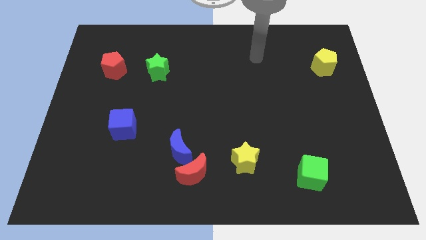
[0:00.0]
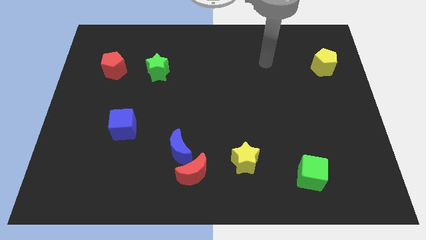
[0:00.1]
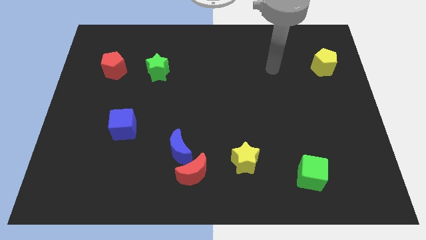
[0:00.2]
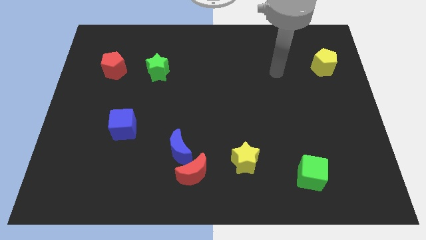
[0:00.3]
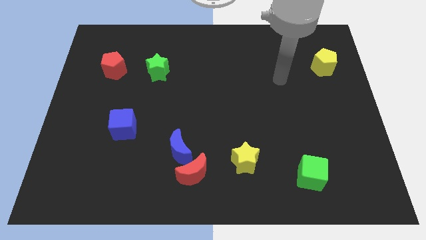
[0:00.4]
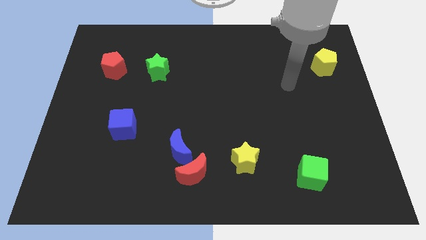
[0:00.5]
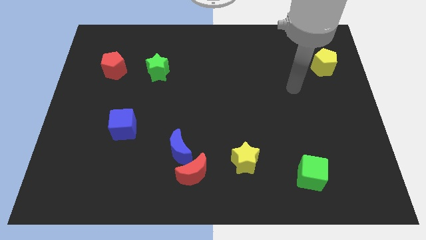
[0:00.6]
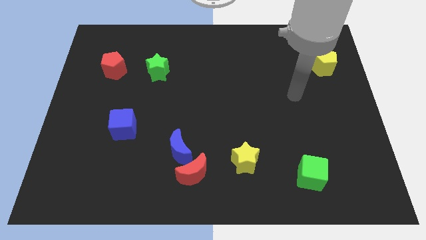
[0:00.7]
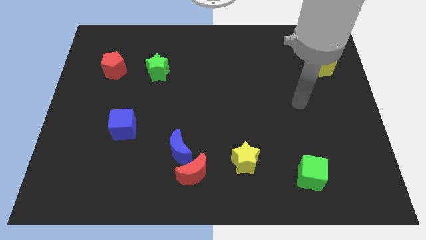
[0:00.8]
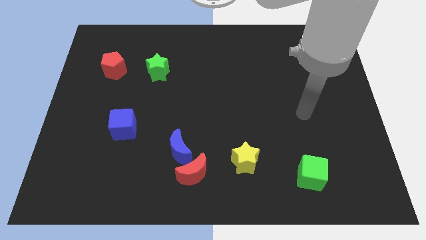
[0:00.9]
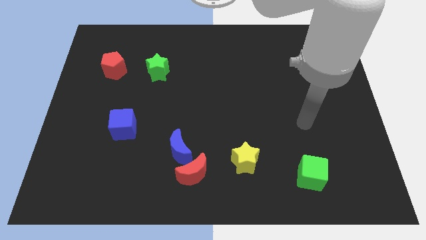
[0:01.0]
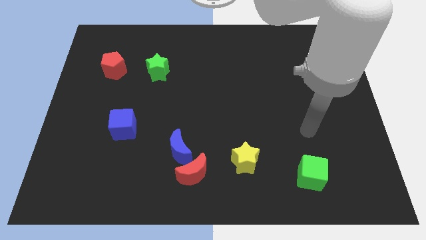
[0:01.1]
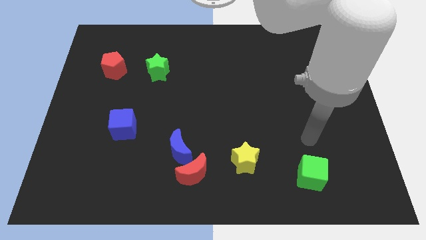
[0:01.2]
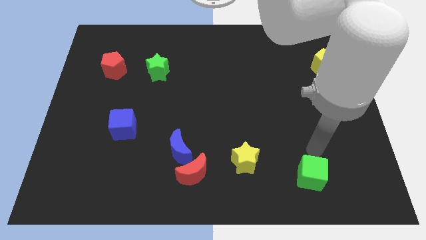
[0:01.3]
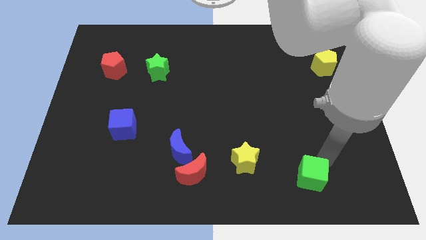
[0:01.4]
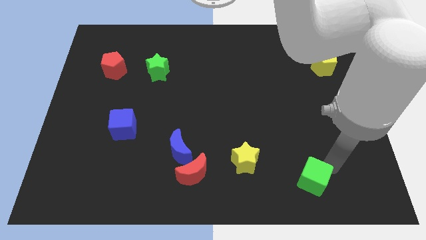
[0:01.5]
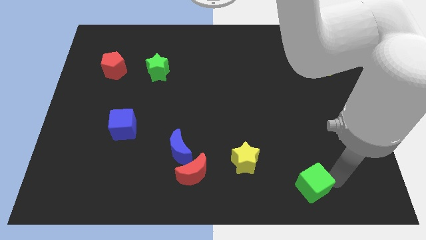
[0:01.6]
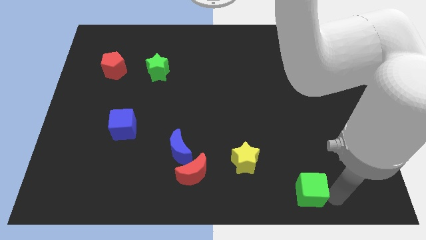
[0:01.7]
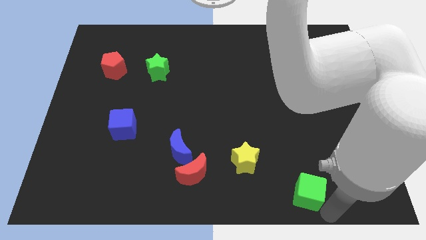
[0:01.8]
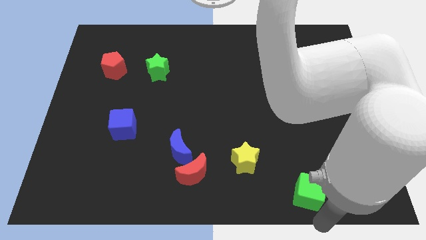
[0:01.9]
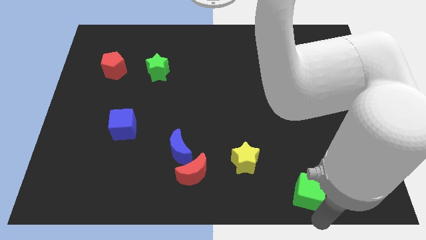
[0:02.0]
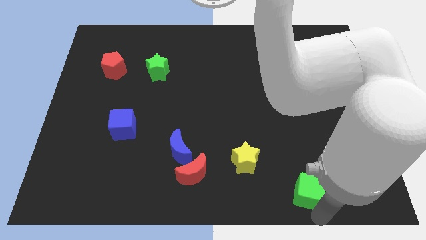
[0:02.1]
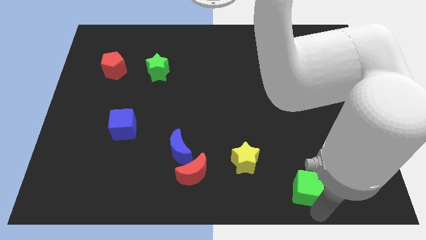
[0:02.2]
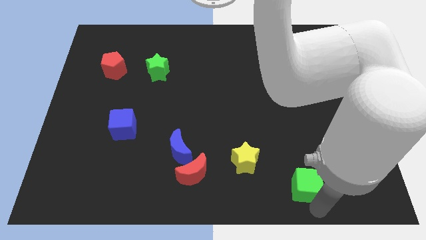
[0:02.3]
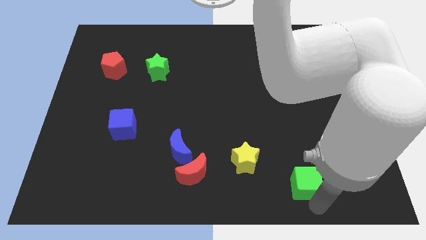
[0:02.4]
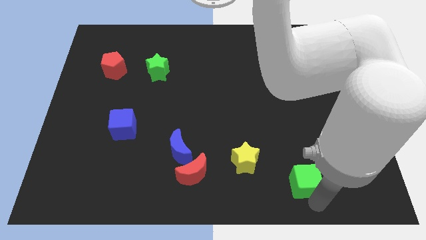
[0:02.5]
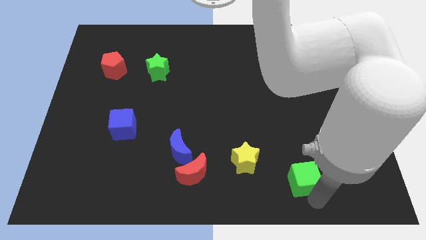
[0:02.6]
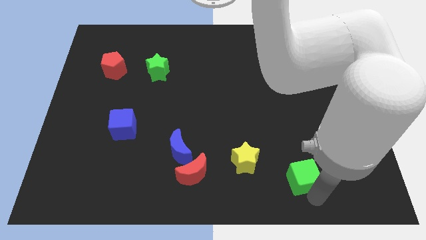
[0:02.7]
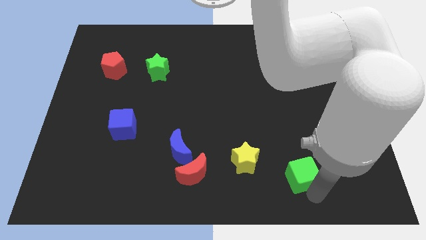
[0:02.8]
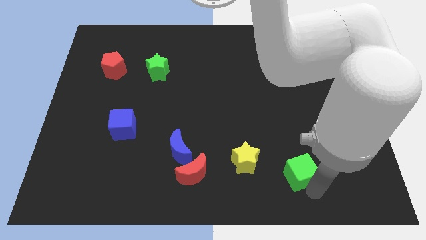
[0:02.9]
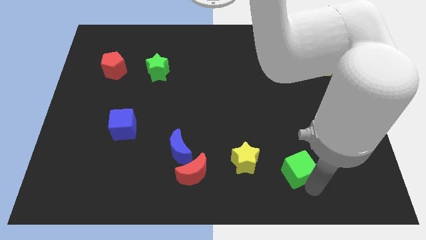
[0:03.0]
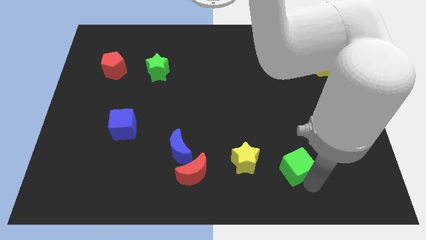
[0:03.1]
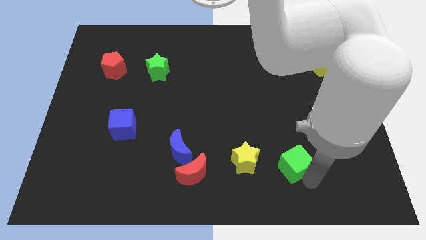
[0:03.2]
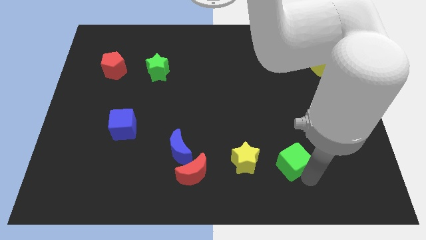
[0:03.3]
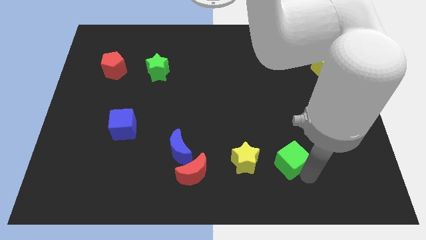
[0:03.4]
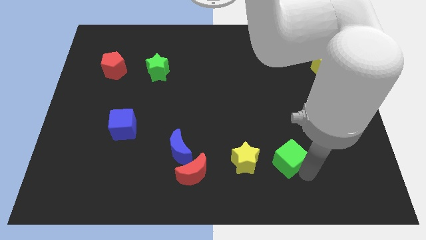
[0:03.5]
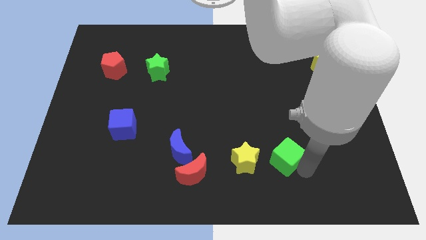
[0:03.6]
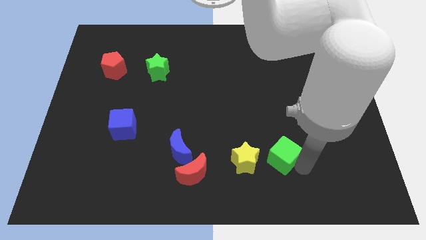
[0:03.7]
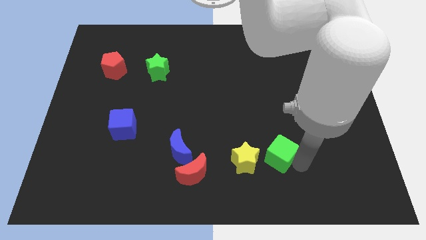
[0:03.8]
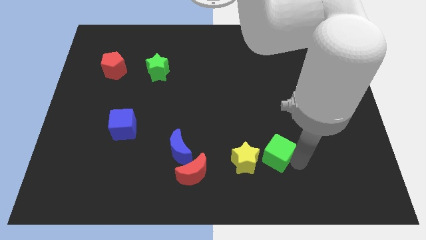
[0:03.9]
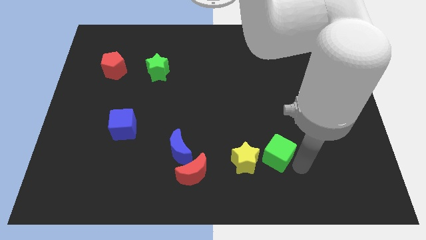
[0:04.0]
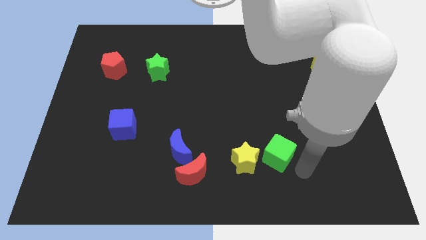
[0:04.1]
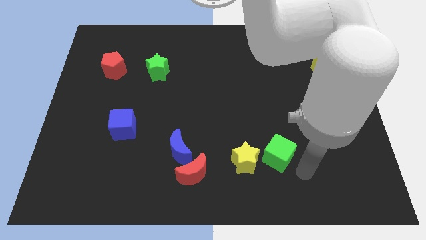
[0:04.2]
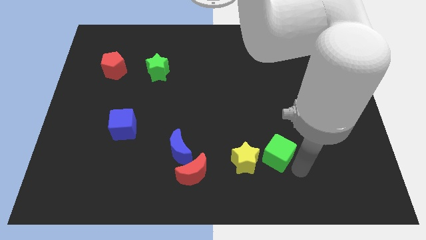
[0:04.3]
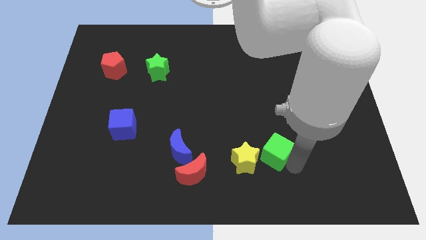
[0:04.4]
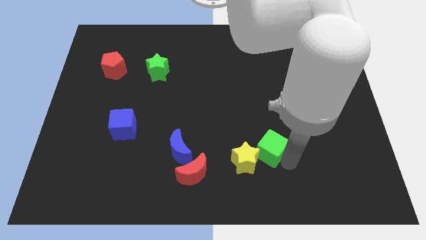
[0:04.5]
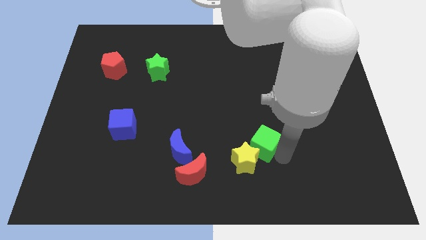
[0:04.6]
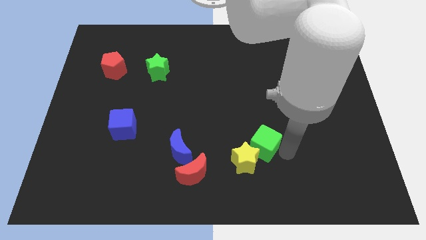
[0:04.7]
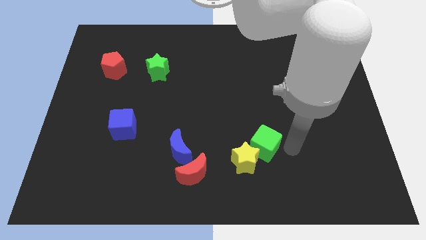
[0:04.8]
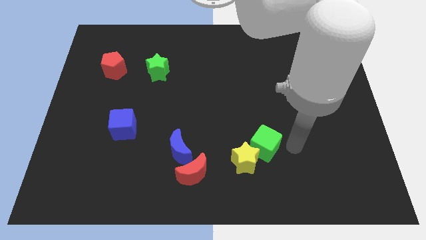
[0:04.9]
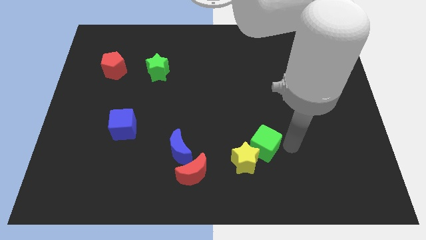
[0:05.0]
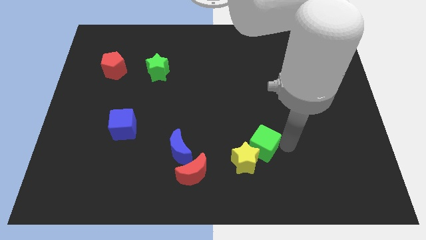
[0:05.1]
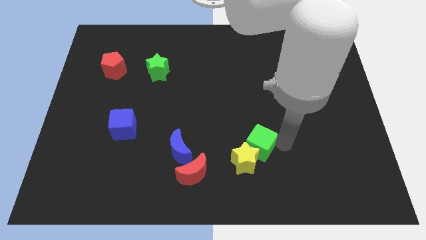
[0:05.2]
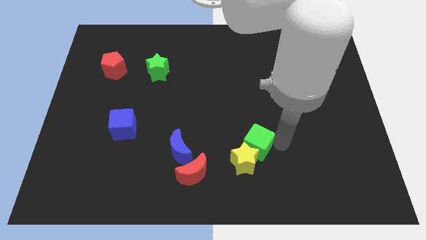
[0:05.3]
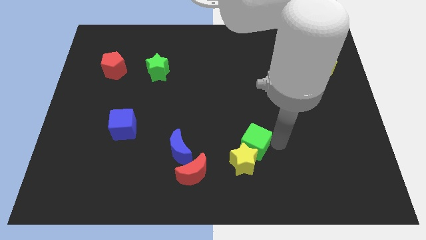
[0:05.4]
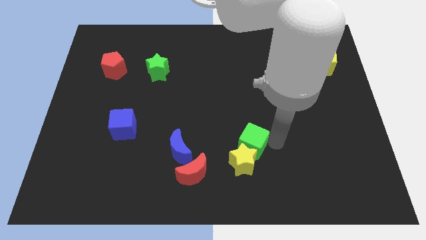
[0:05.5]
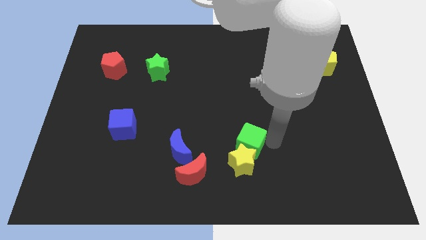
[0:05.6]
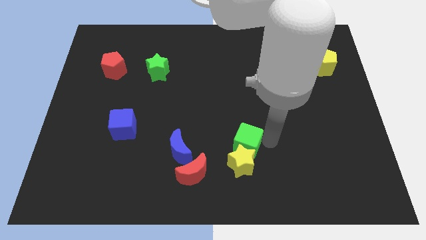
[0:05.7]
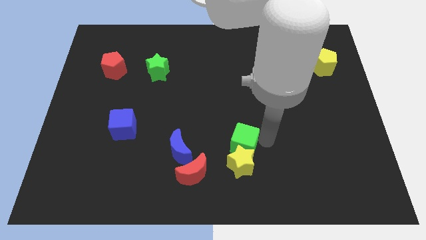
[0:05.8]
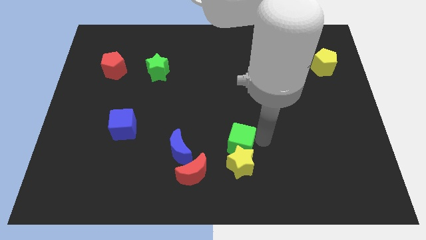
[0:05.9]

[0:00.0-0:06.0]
put the green cube to the top right of the red moon

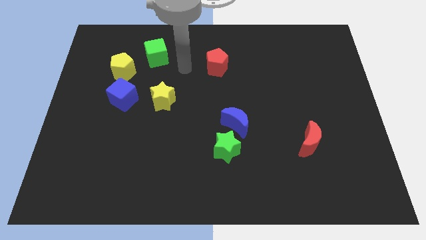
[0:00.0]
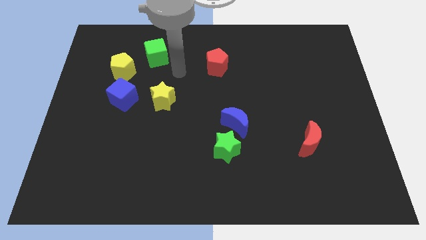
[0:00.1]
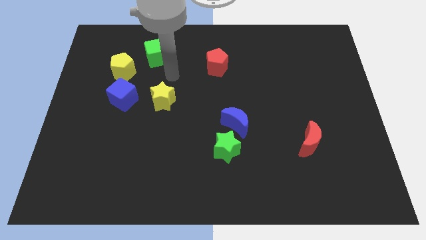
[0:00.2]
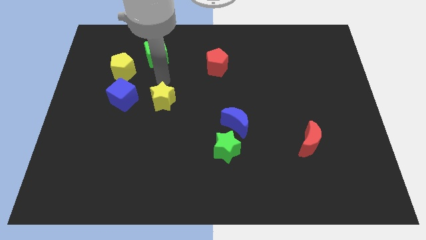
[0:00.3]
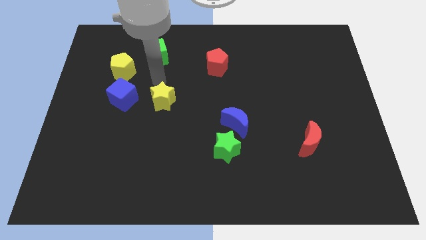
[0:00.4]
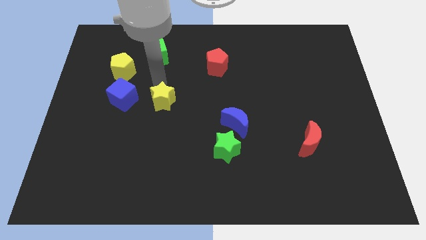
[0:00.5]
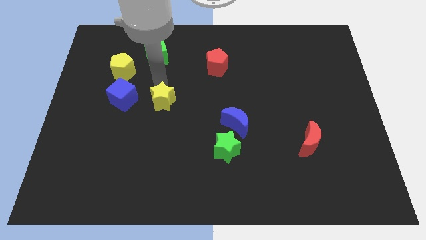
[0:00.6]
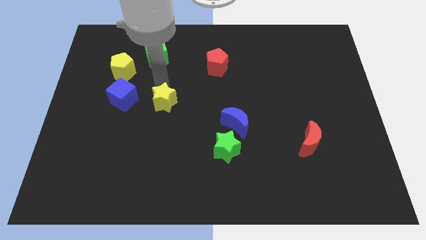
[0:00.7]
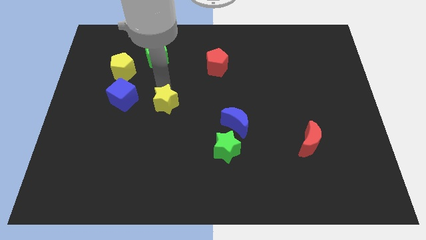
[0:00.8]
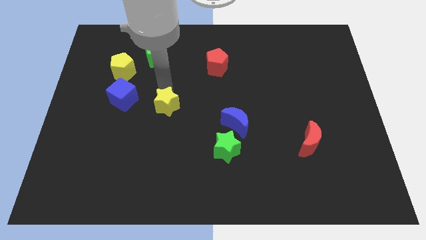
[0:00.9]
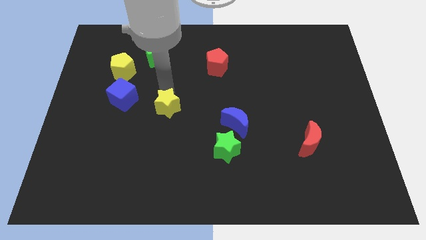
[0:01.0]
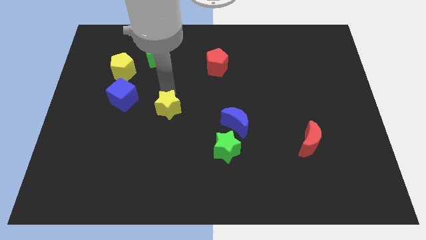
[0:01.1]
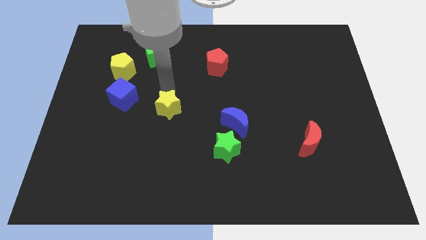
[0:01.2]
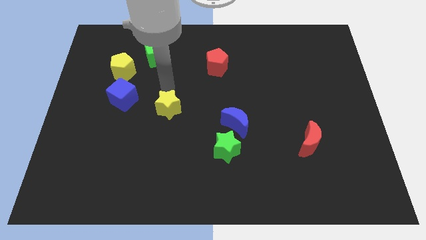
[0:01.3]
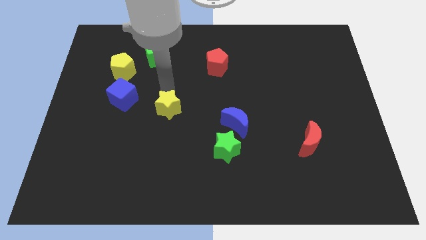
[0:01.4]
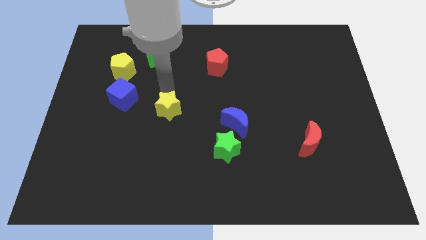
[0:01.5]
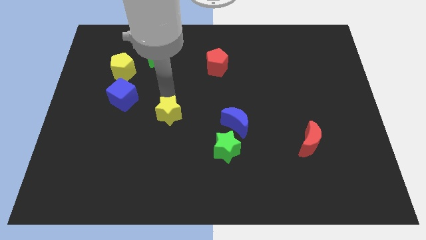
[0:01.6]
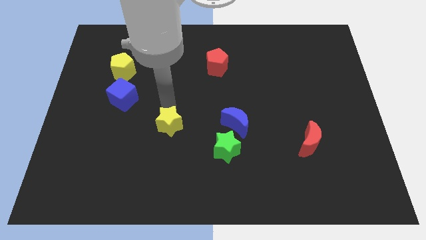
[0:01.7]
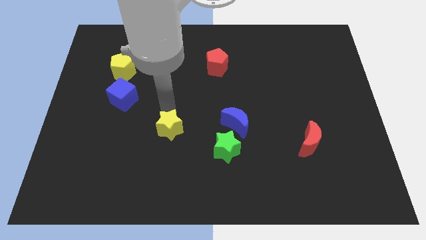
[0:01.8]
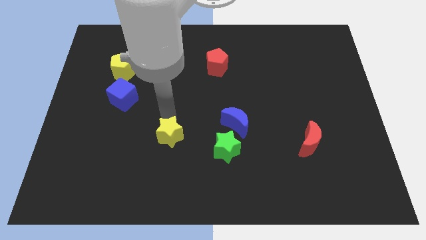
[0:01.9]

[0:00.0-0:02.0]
move the yellow star left of the green star
